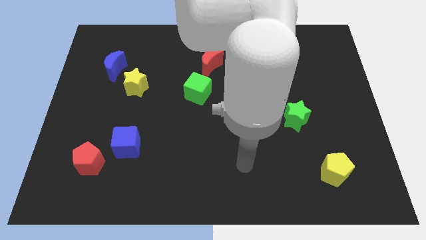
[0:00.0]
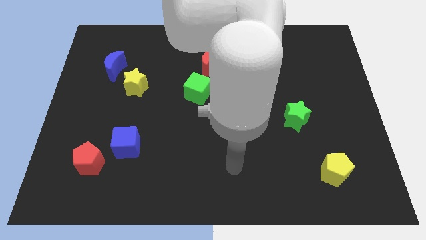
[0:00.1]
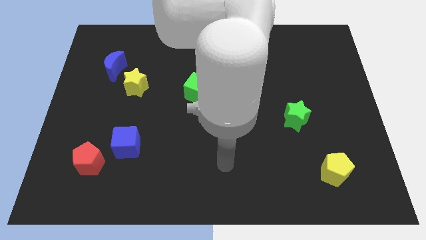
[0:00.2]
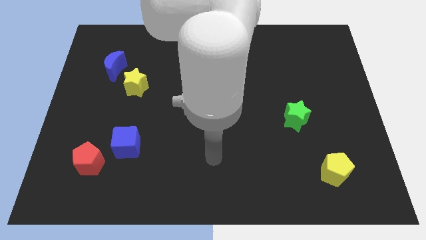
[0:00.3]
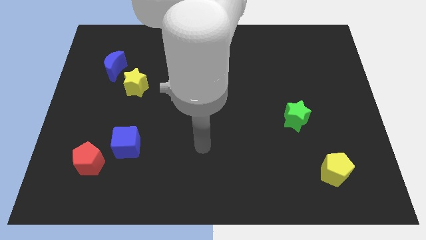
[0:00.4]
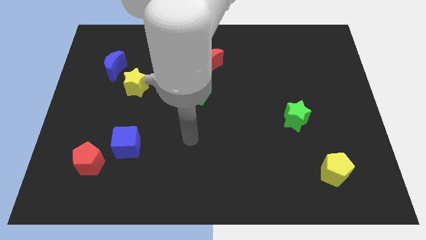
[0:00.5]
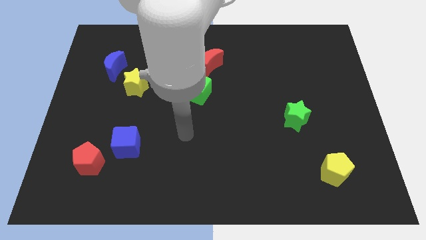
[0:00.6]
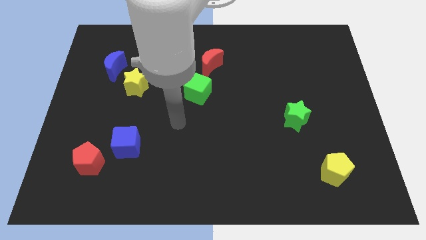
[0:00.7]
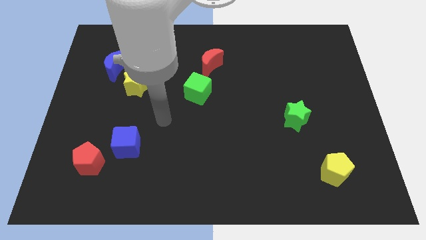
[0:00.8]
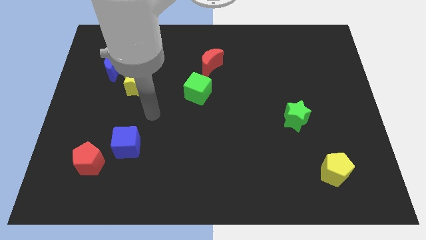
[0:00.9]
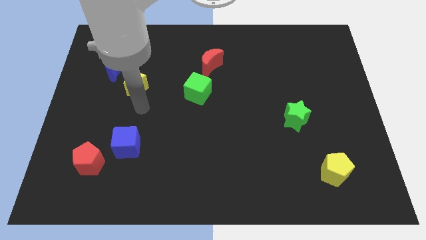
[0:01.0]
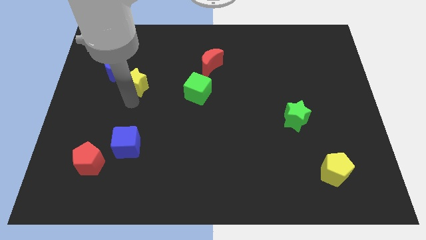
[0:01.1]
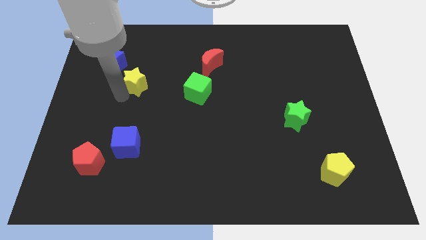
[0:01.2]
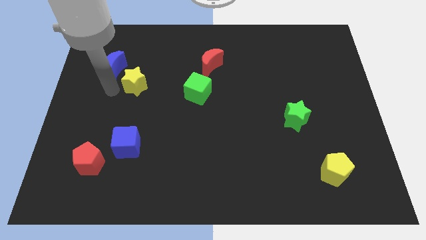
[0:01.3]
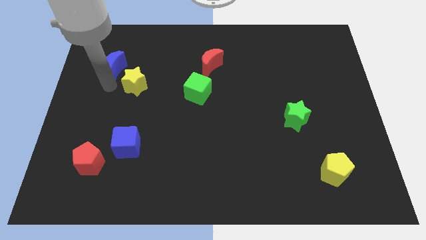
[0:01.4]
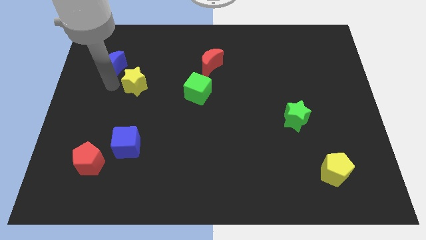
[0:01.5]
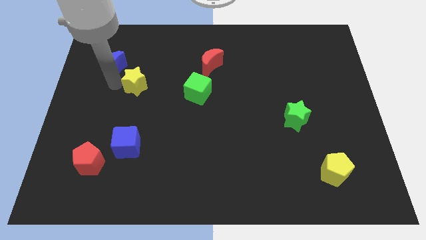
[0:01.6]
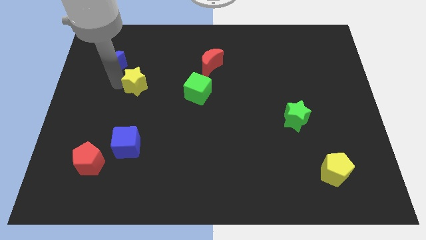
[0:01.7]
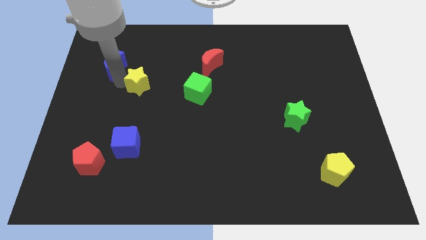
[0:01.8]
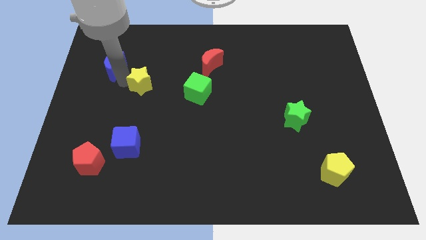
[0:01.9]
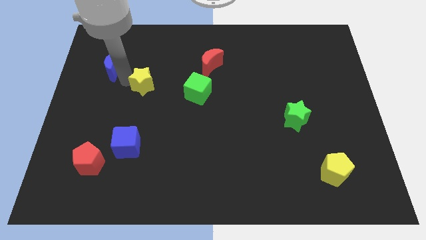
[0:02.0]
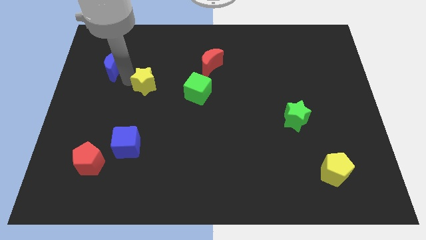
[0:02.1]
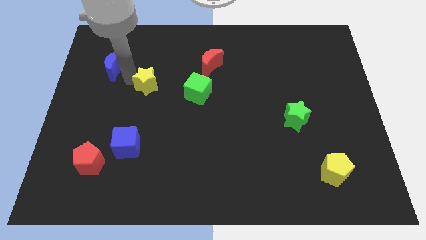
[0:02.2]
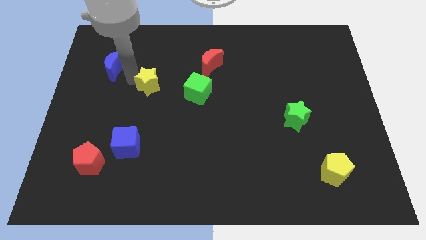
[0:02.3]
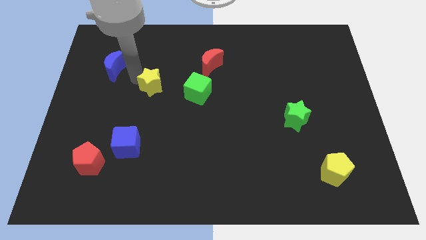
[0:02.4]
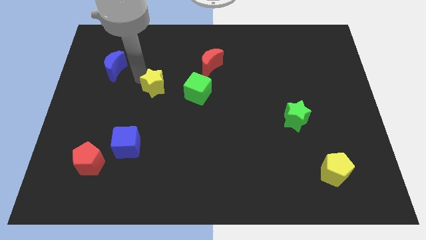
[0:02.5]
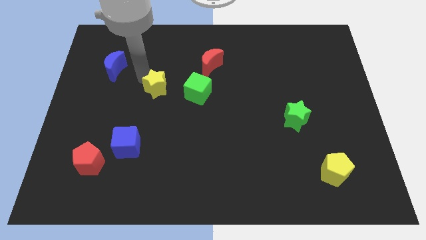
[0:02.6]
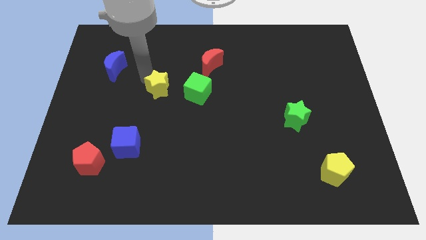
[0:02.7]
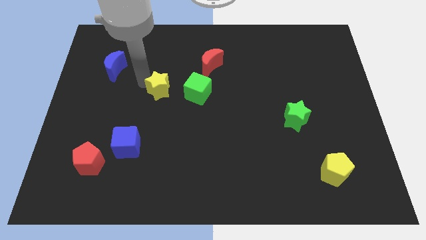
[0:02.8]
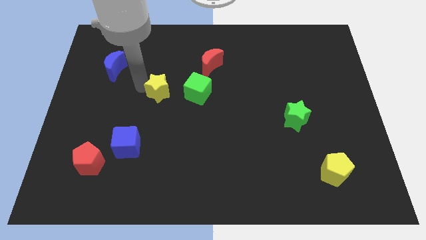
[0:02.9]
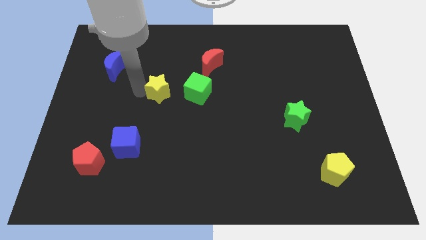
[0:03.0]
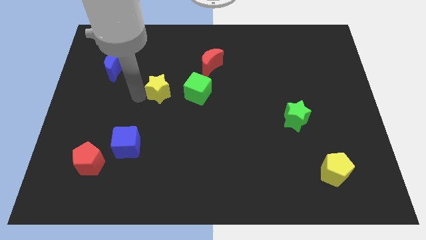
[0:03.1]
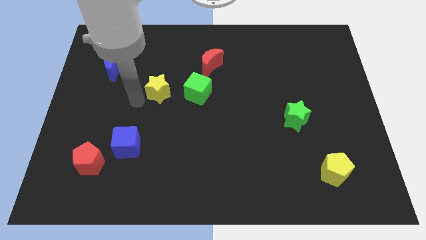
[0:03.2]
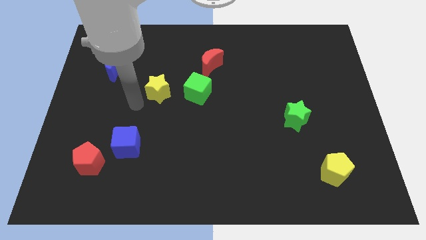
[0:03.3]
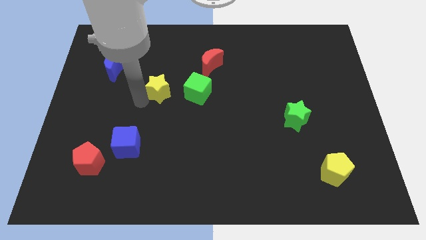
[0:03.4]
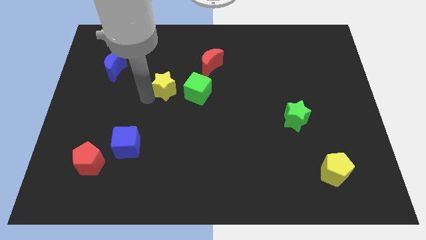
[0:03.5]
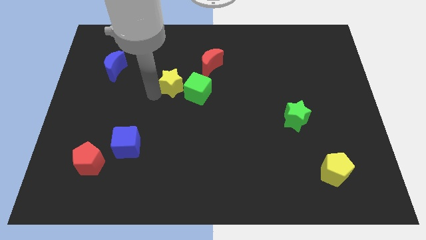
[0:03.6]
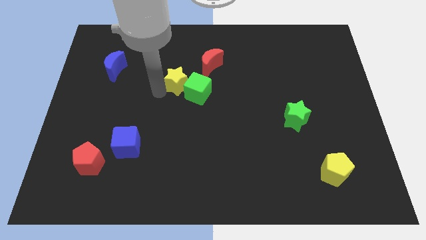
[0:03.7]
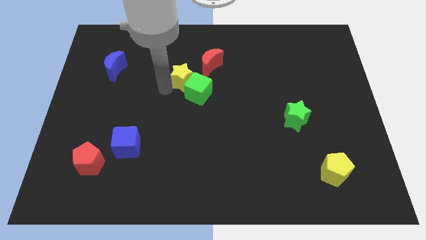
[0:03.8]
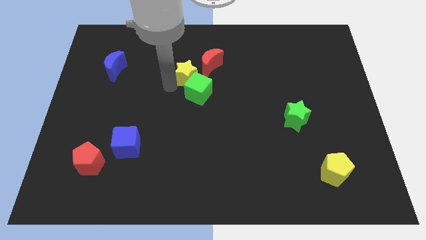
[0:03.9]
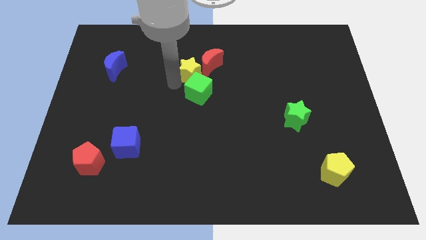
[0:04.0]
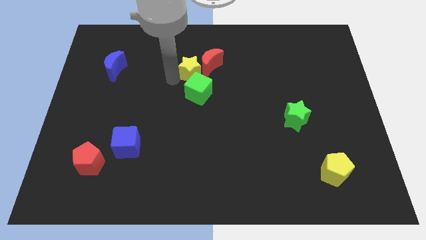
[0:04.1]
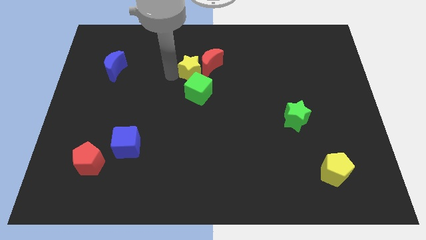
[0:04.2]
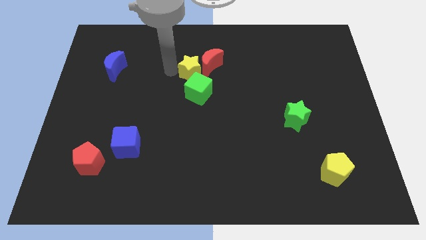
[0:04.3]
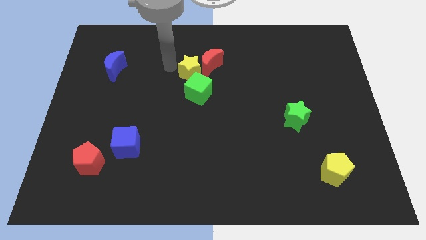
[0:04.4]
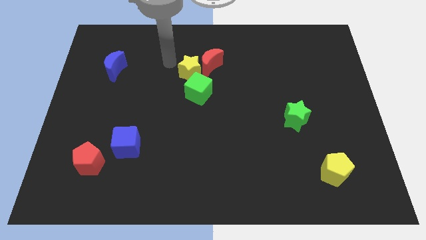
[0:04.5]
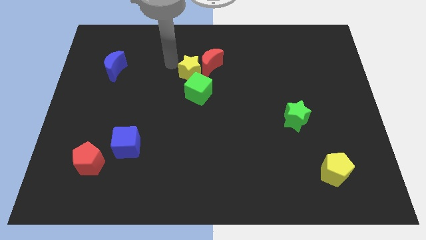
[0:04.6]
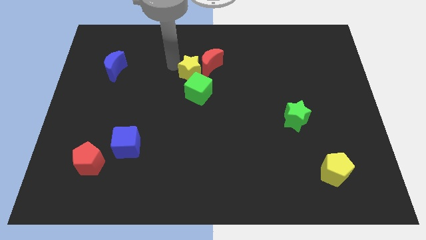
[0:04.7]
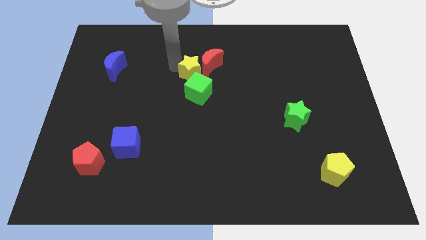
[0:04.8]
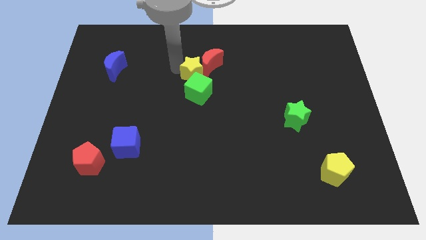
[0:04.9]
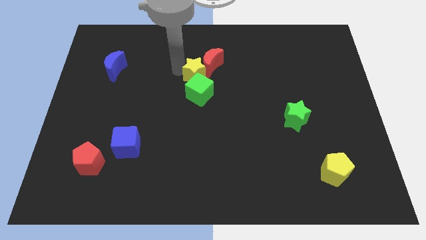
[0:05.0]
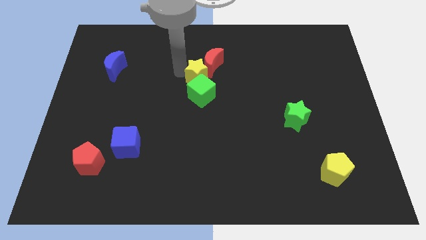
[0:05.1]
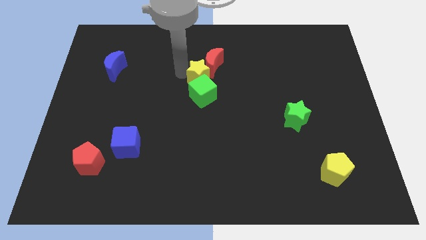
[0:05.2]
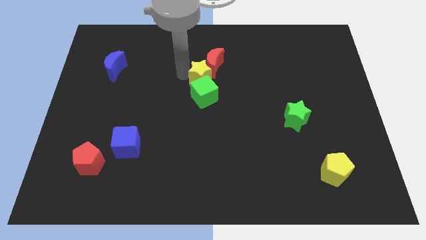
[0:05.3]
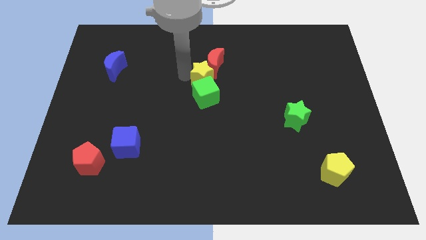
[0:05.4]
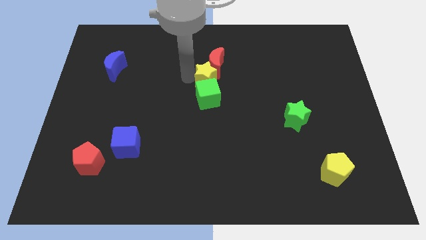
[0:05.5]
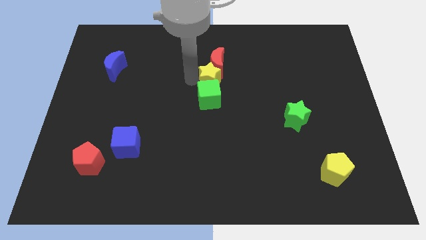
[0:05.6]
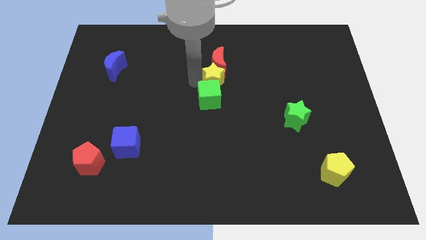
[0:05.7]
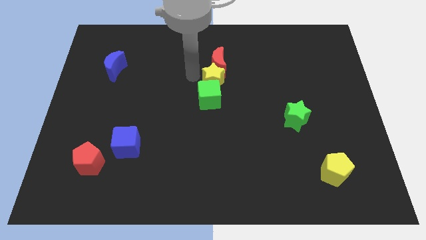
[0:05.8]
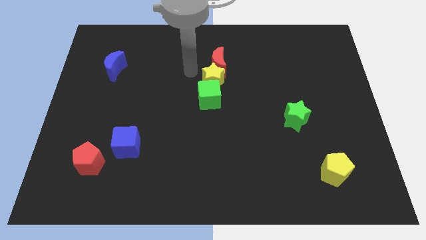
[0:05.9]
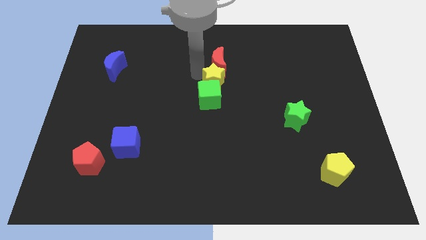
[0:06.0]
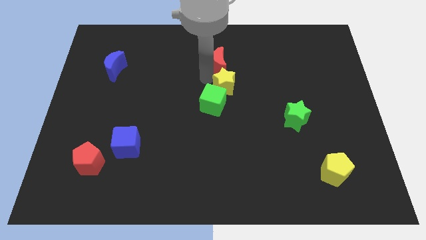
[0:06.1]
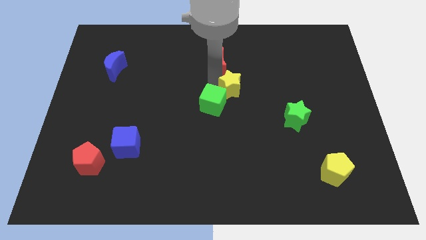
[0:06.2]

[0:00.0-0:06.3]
push the yellow star to the right side of the green cube

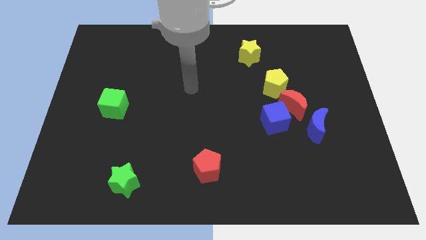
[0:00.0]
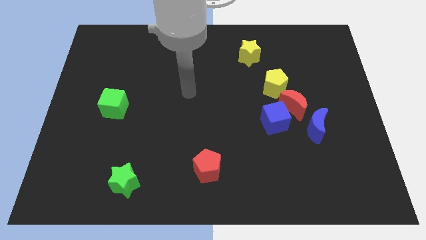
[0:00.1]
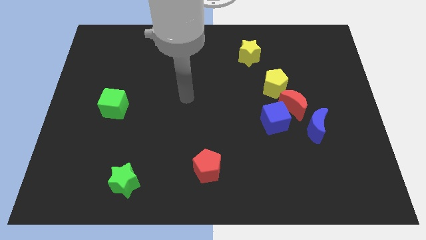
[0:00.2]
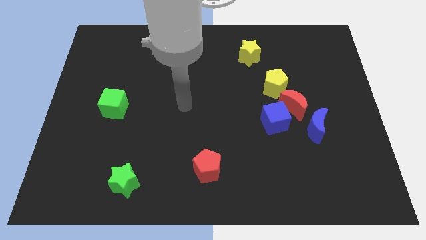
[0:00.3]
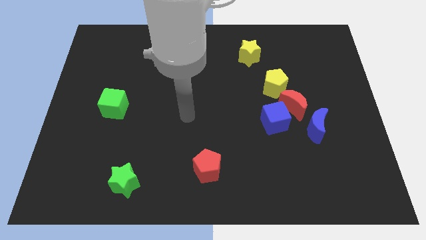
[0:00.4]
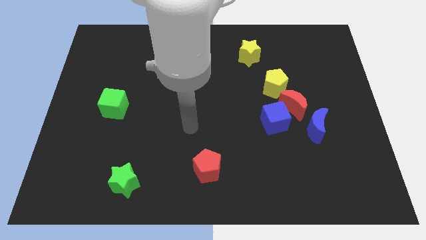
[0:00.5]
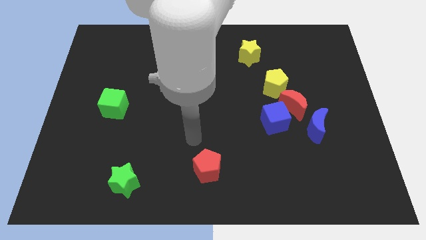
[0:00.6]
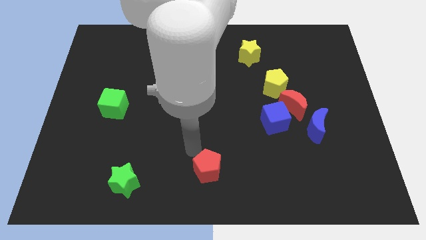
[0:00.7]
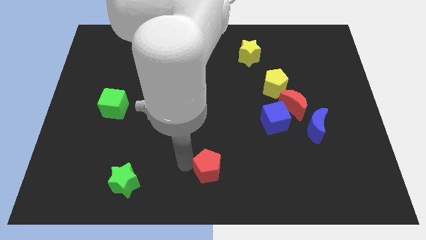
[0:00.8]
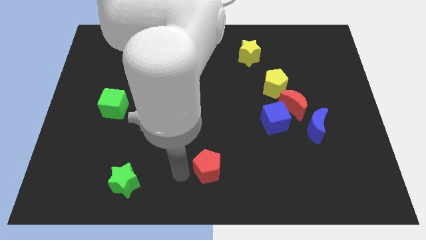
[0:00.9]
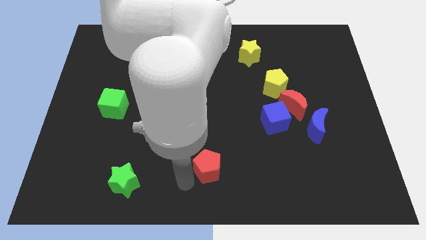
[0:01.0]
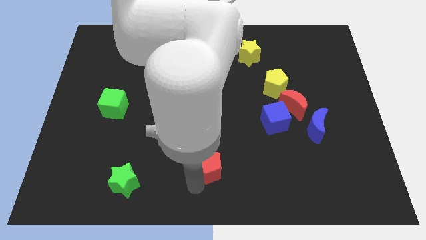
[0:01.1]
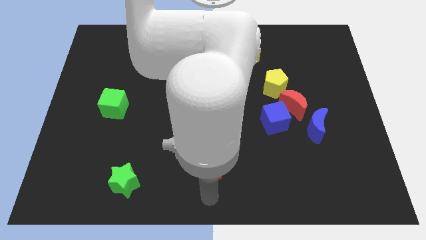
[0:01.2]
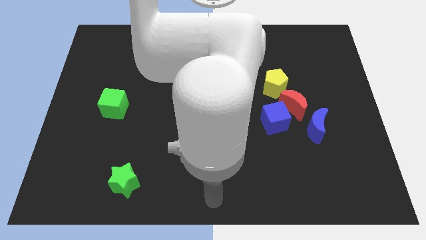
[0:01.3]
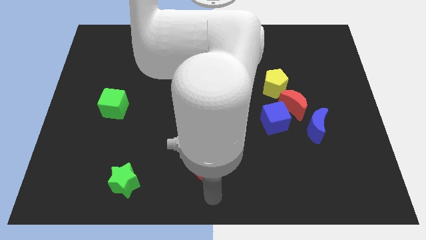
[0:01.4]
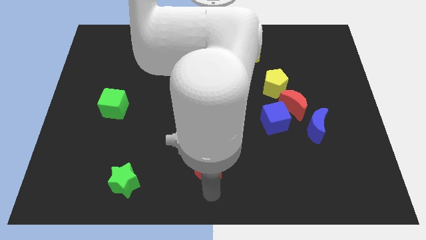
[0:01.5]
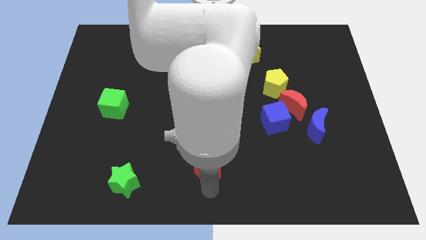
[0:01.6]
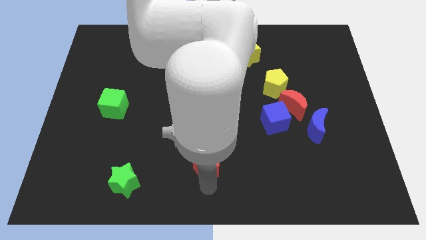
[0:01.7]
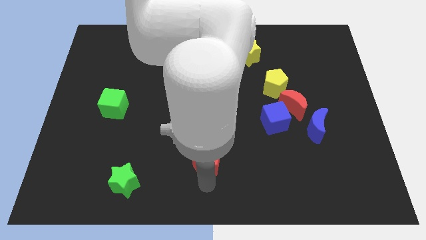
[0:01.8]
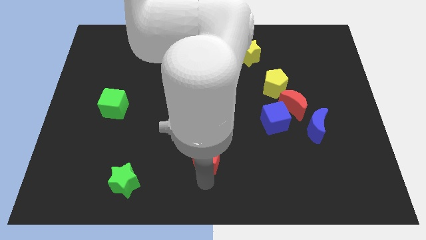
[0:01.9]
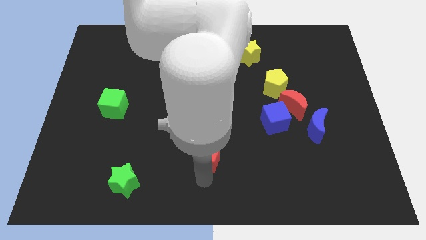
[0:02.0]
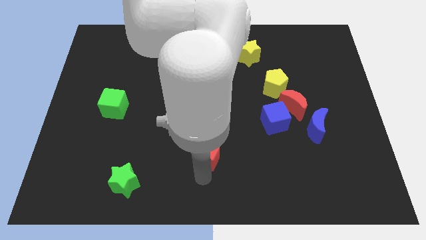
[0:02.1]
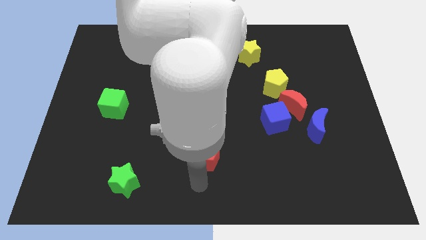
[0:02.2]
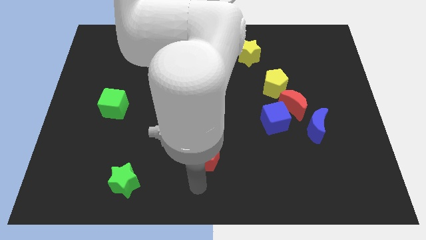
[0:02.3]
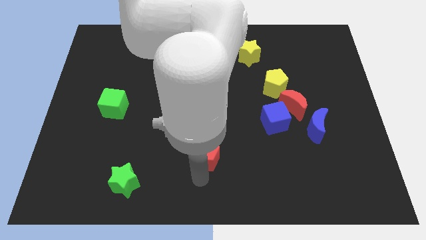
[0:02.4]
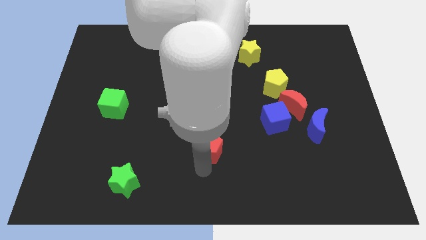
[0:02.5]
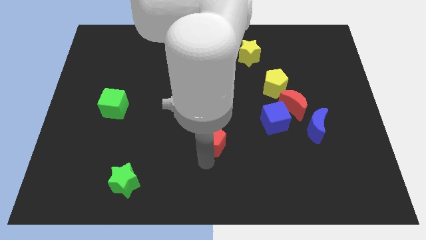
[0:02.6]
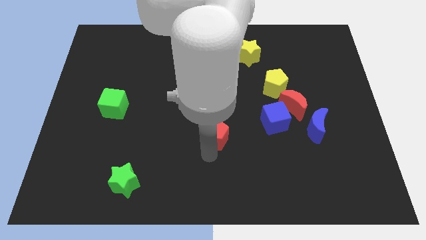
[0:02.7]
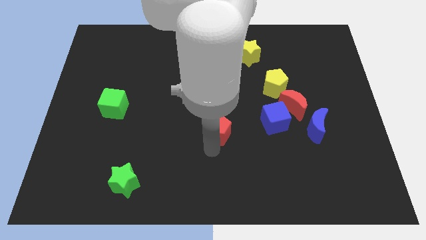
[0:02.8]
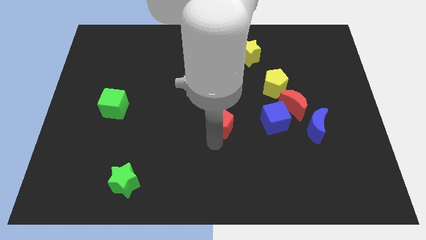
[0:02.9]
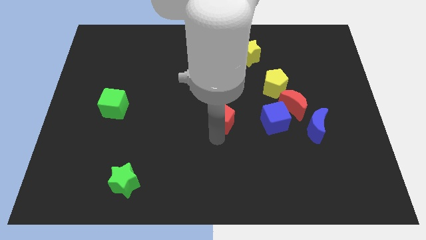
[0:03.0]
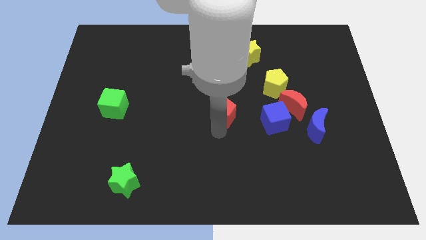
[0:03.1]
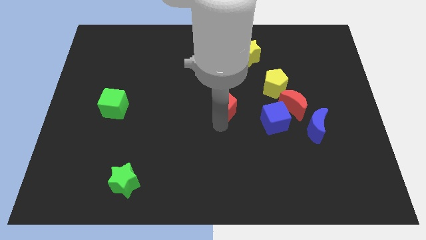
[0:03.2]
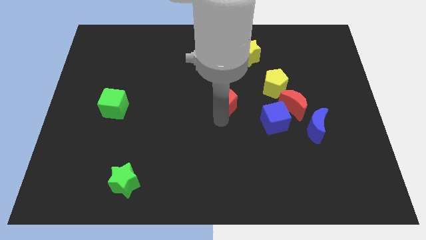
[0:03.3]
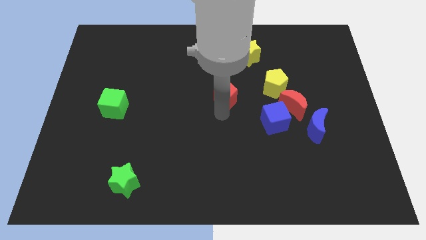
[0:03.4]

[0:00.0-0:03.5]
push the red pentagon to the left side of the yellow pentagon
